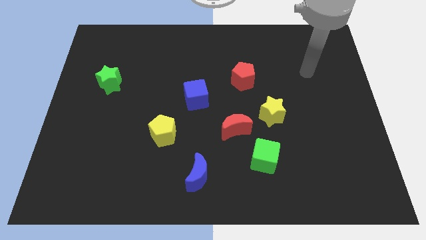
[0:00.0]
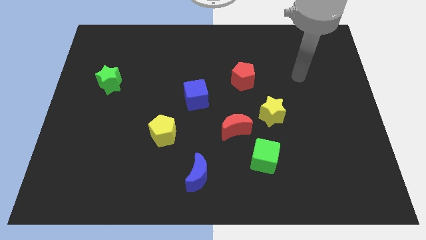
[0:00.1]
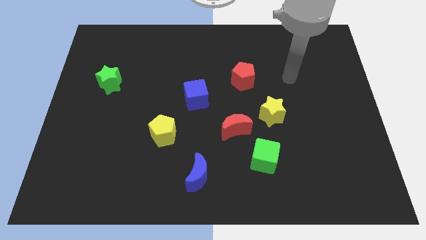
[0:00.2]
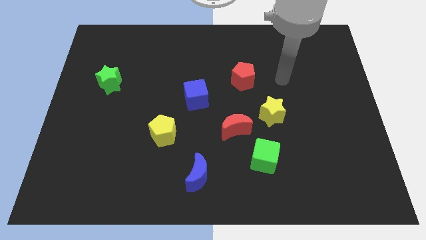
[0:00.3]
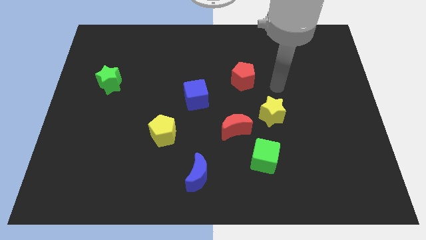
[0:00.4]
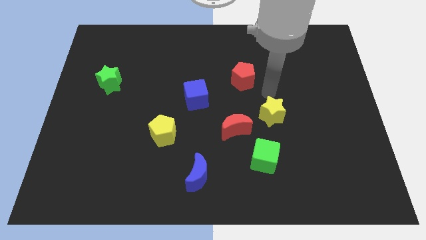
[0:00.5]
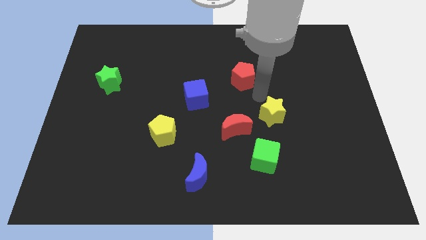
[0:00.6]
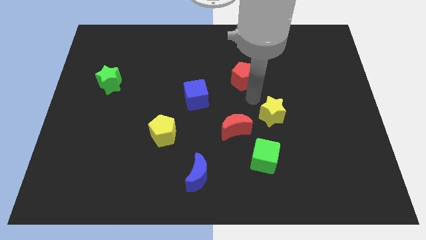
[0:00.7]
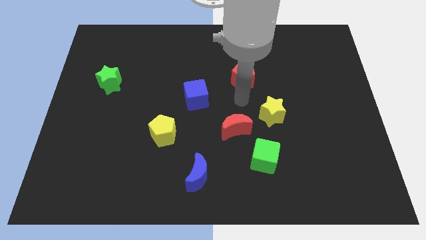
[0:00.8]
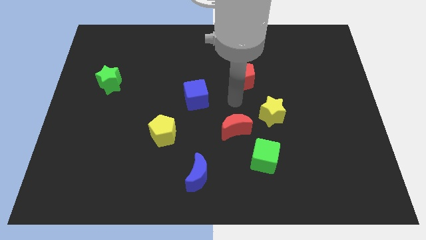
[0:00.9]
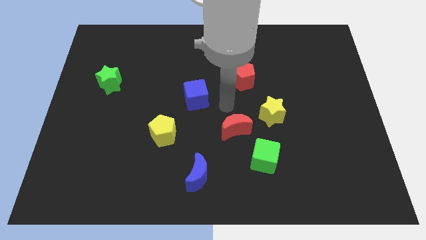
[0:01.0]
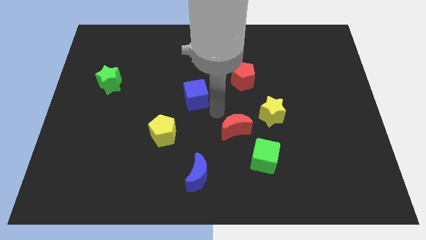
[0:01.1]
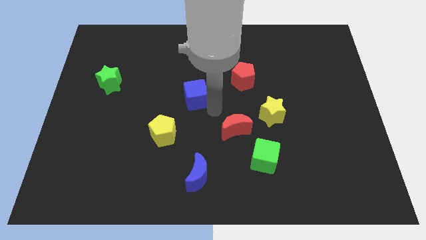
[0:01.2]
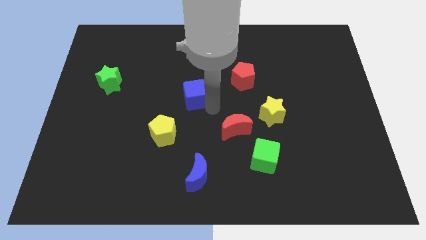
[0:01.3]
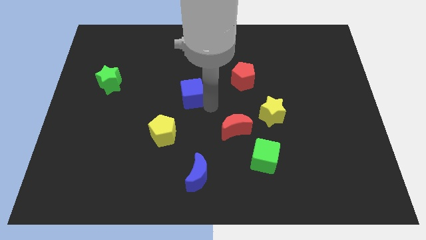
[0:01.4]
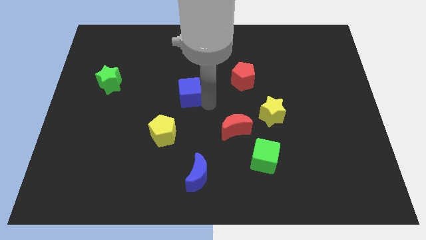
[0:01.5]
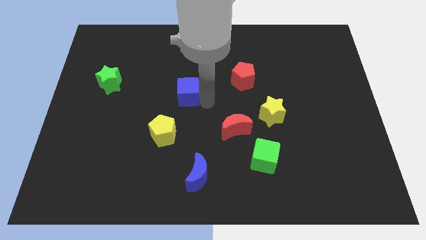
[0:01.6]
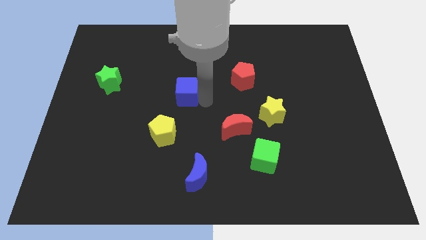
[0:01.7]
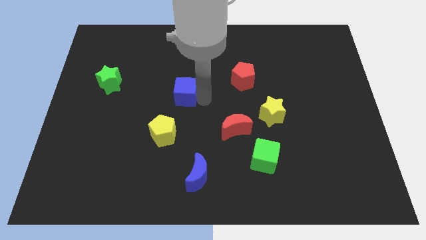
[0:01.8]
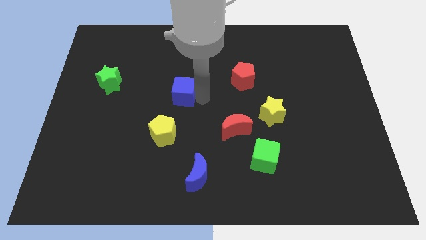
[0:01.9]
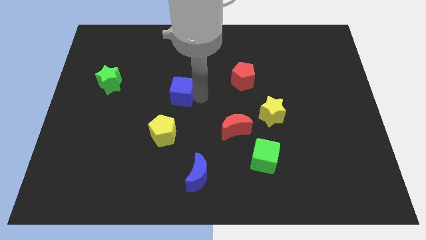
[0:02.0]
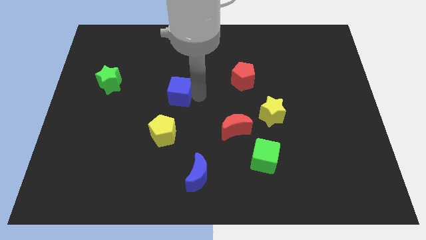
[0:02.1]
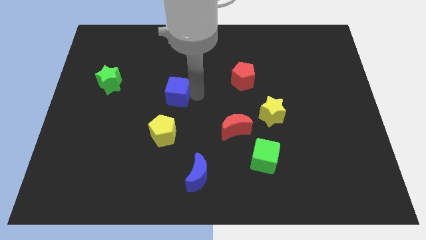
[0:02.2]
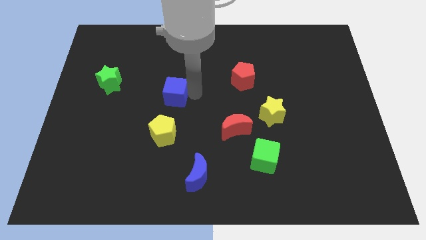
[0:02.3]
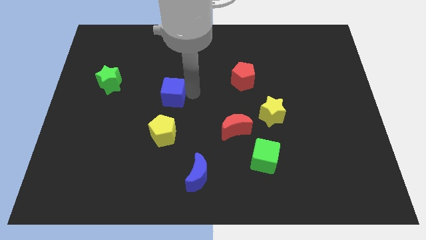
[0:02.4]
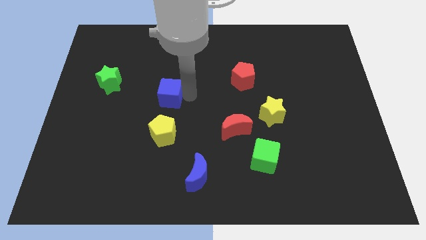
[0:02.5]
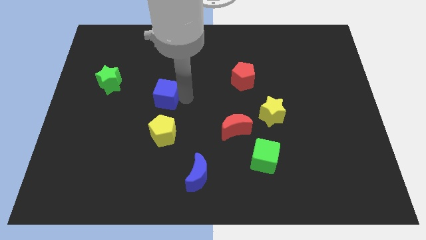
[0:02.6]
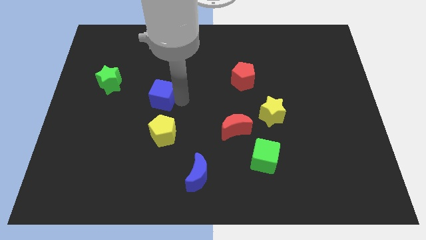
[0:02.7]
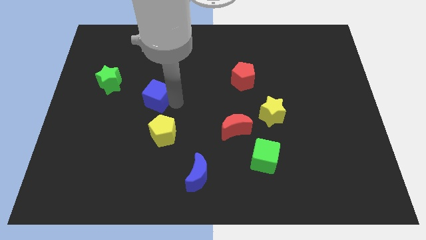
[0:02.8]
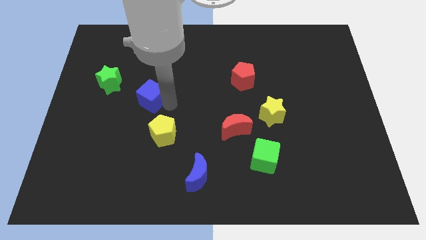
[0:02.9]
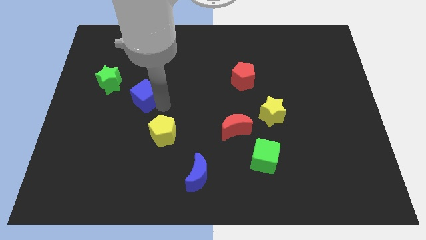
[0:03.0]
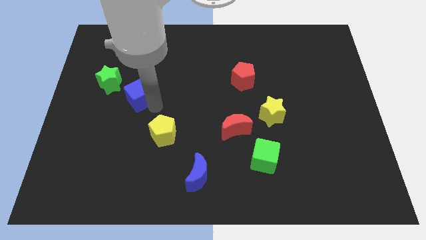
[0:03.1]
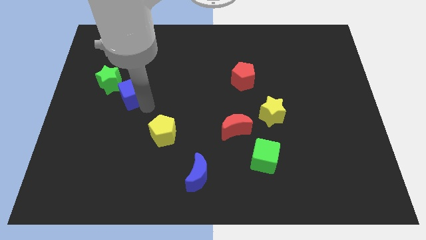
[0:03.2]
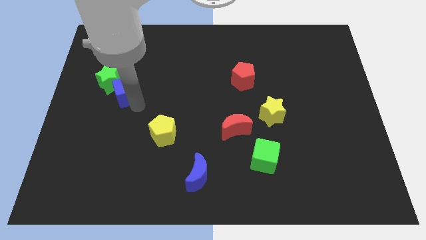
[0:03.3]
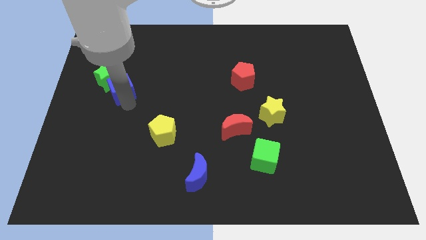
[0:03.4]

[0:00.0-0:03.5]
slightly slide the blue cube upwards and then left

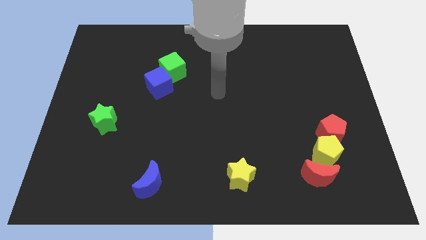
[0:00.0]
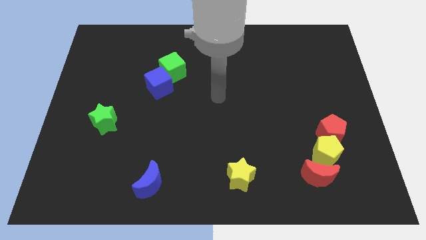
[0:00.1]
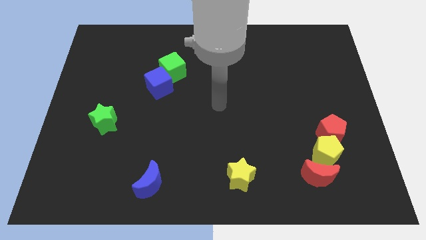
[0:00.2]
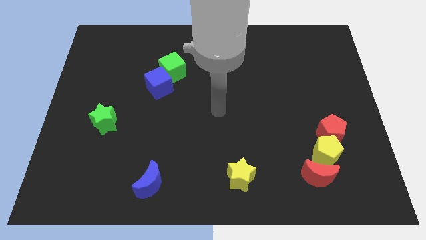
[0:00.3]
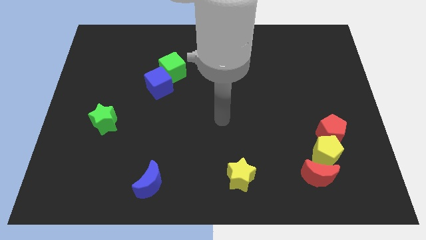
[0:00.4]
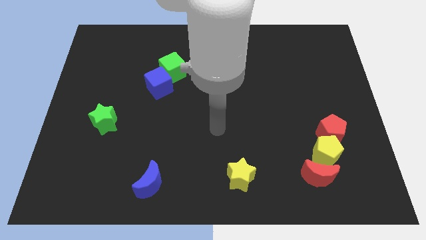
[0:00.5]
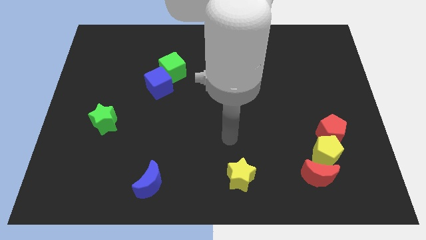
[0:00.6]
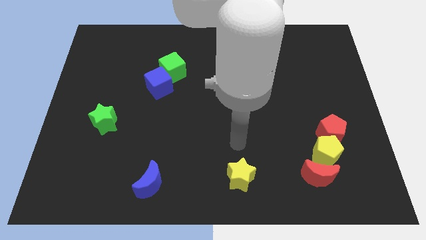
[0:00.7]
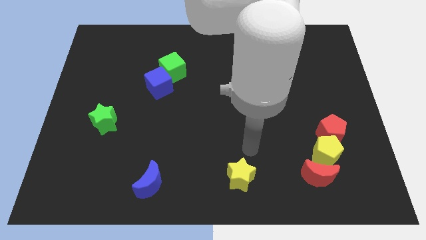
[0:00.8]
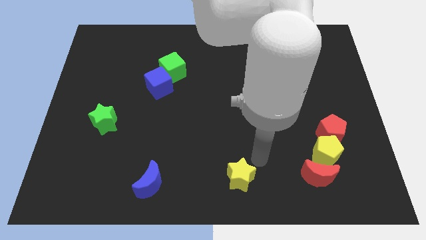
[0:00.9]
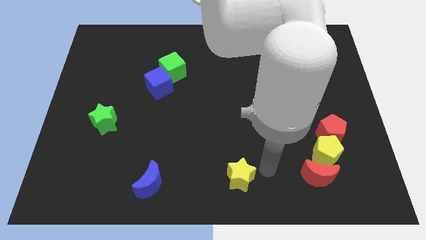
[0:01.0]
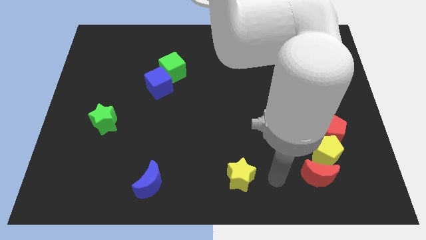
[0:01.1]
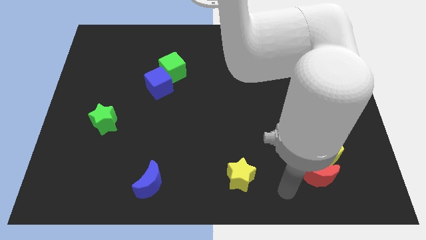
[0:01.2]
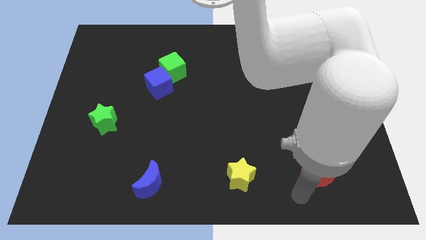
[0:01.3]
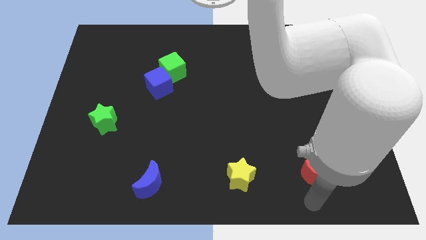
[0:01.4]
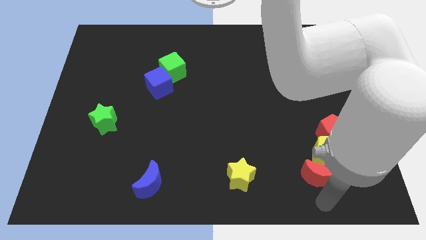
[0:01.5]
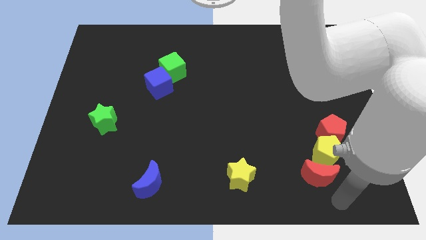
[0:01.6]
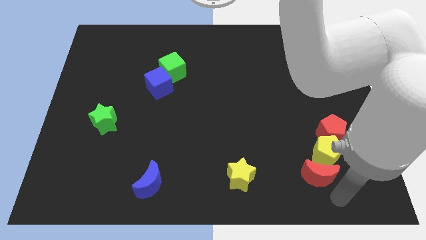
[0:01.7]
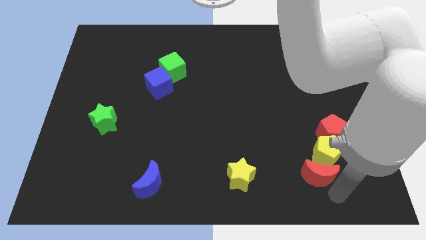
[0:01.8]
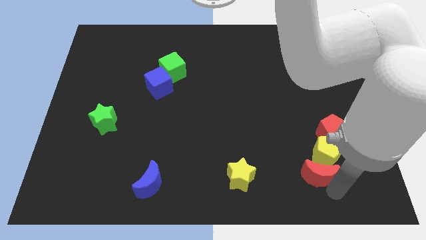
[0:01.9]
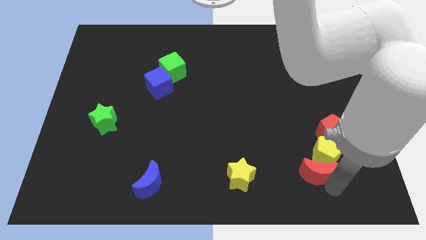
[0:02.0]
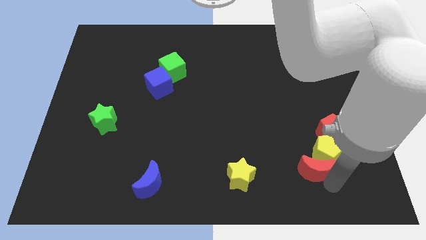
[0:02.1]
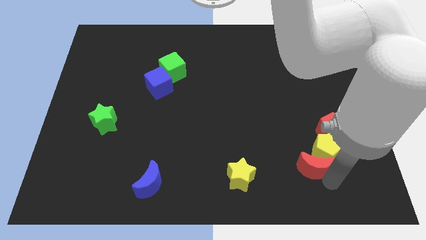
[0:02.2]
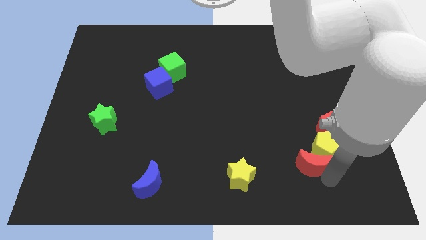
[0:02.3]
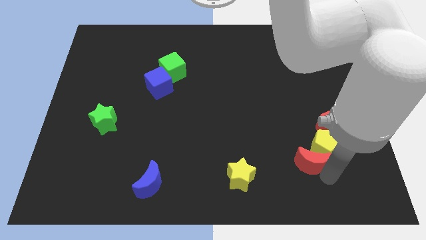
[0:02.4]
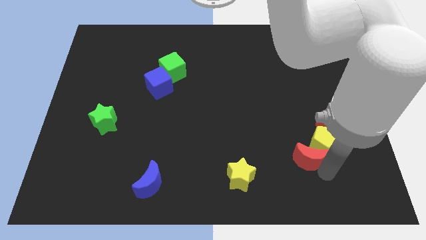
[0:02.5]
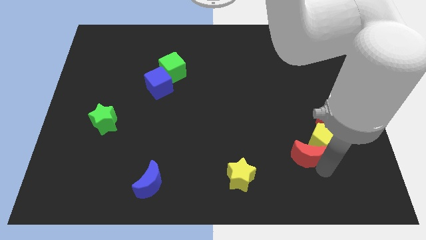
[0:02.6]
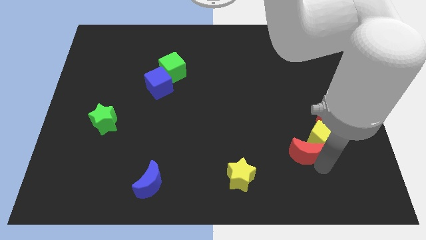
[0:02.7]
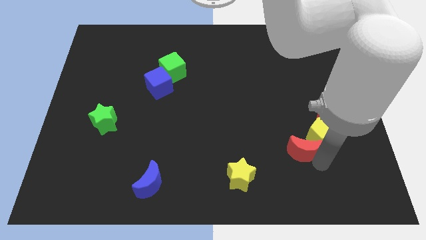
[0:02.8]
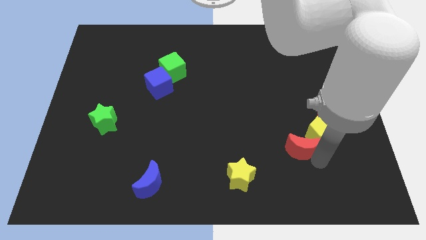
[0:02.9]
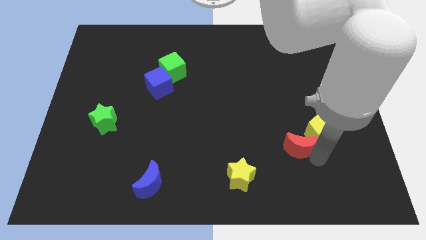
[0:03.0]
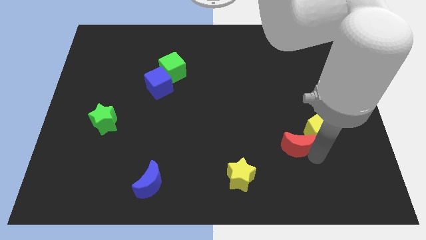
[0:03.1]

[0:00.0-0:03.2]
push the red moon upwards a little bit

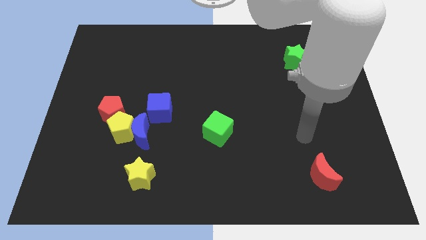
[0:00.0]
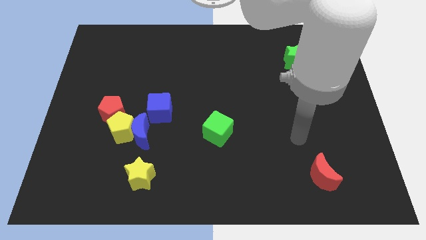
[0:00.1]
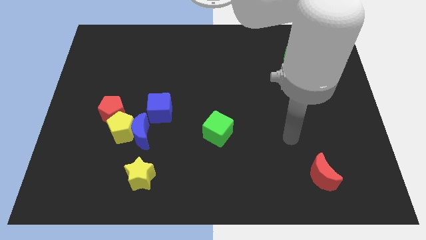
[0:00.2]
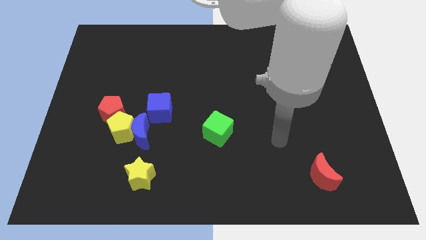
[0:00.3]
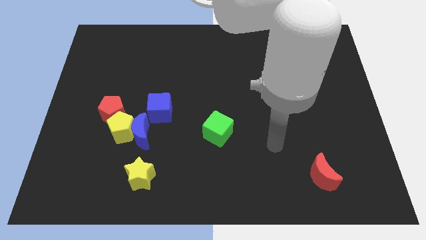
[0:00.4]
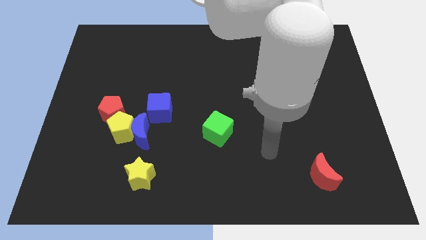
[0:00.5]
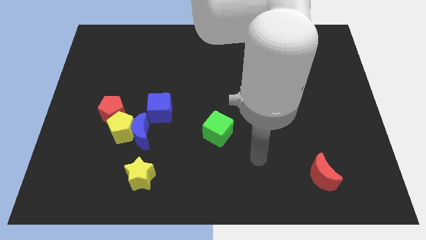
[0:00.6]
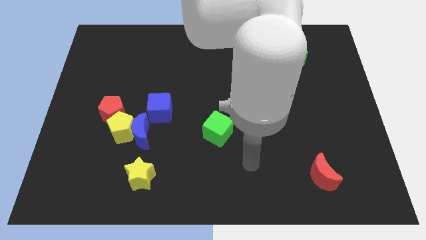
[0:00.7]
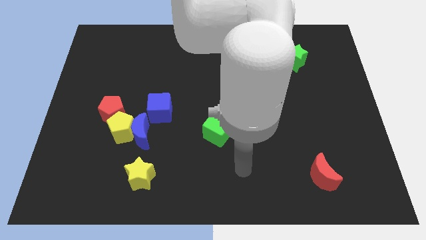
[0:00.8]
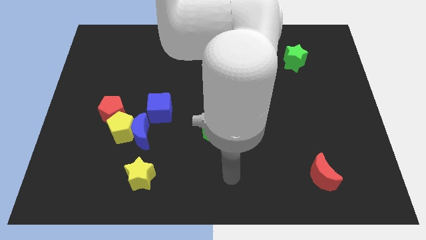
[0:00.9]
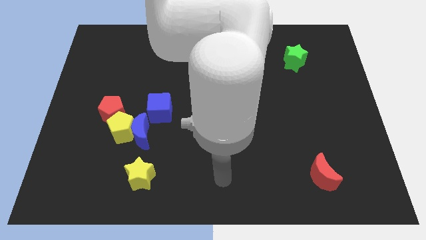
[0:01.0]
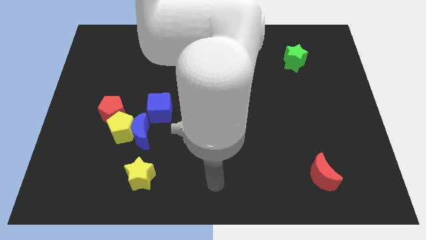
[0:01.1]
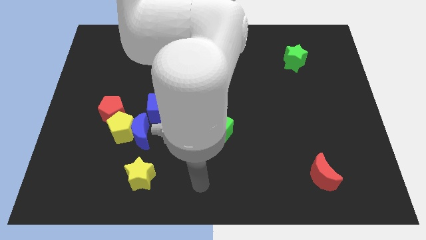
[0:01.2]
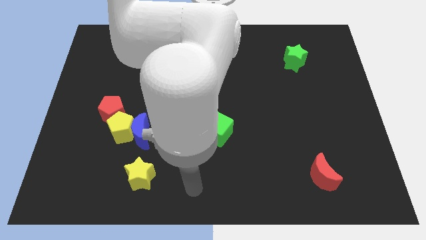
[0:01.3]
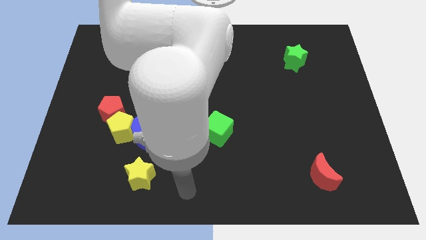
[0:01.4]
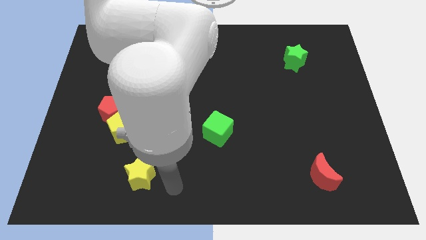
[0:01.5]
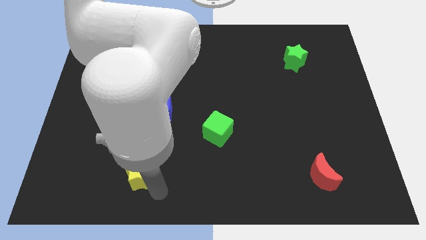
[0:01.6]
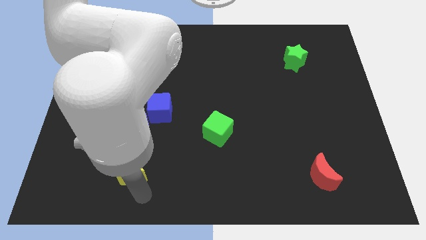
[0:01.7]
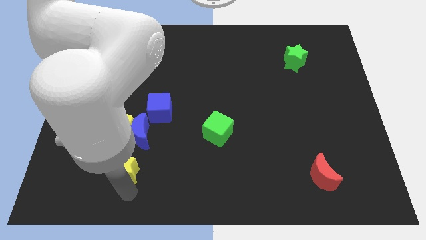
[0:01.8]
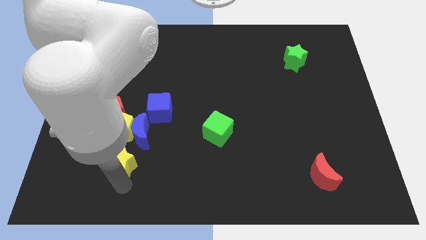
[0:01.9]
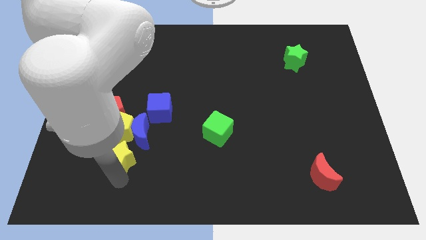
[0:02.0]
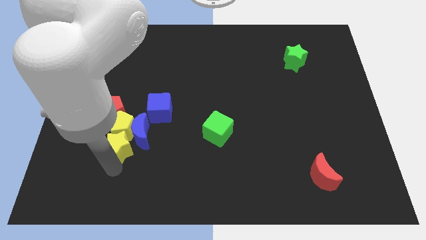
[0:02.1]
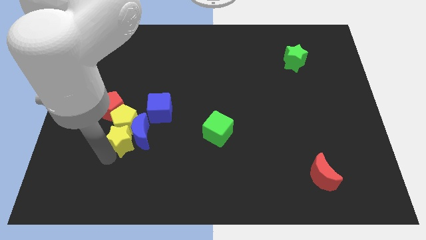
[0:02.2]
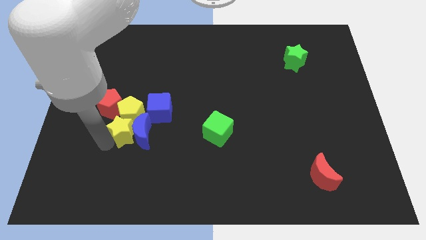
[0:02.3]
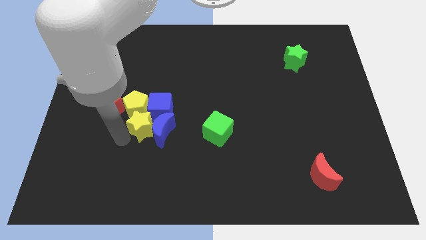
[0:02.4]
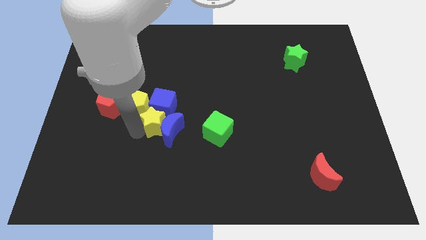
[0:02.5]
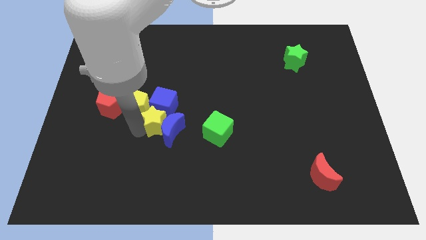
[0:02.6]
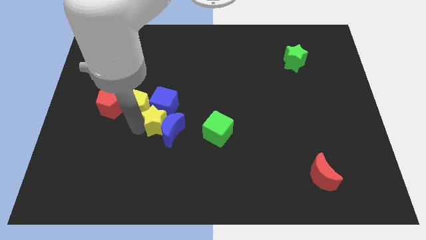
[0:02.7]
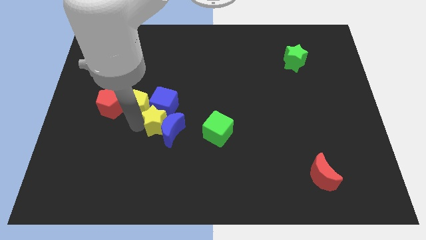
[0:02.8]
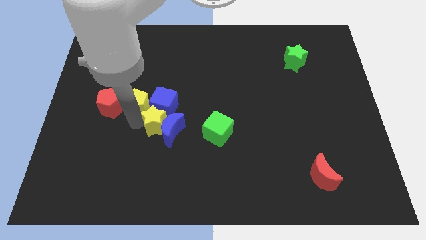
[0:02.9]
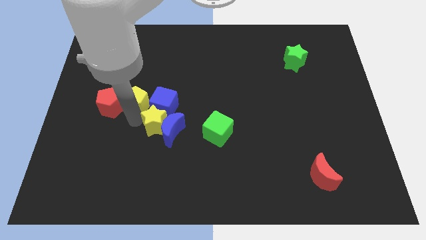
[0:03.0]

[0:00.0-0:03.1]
push the yellow pentagon upwards a little bit
